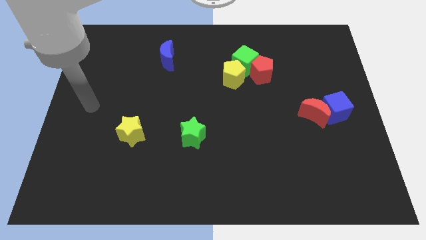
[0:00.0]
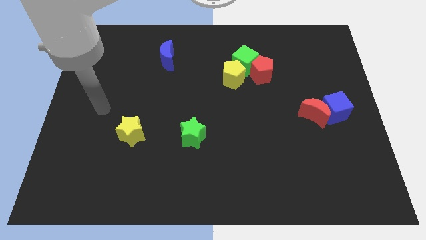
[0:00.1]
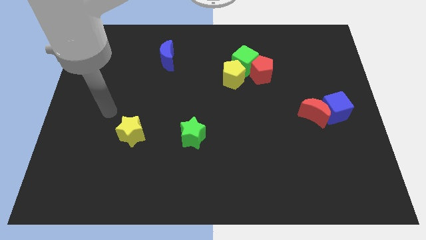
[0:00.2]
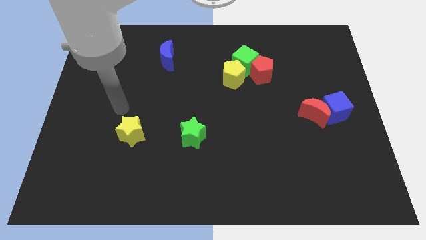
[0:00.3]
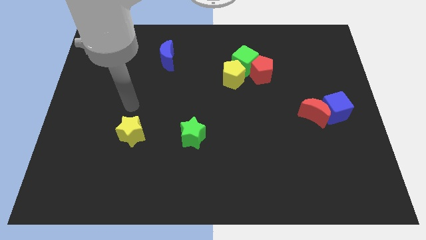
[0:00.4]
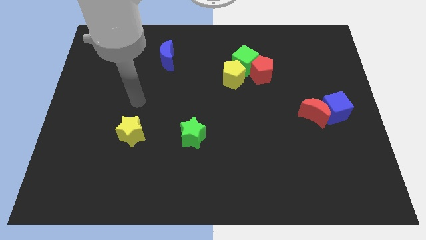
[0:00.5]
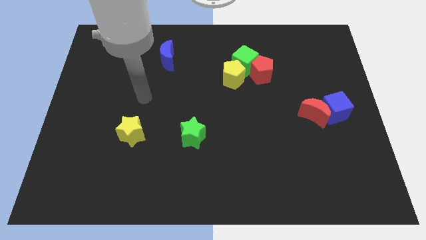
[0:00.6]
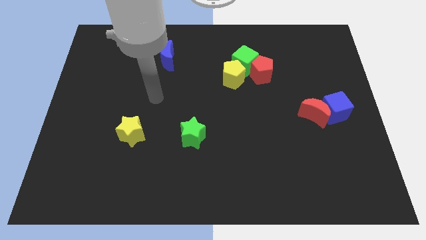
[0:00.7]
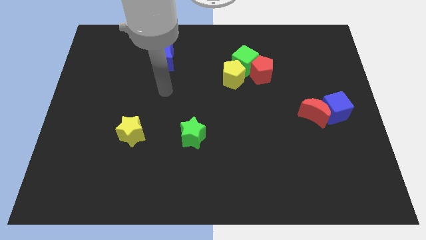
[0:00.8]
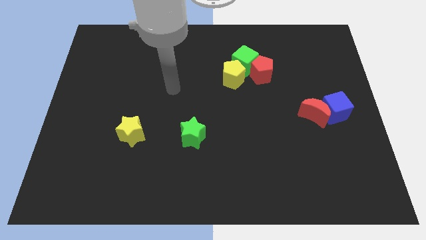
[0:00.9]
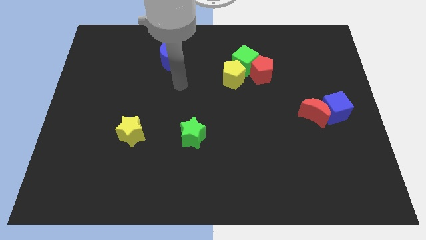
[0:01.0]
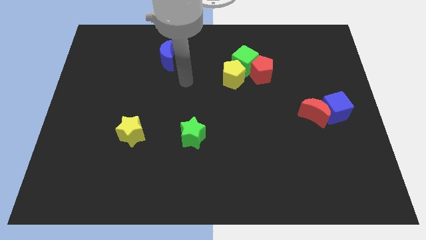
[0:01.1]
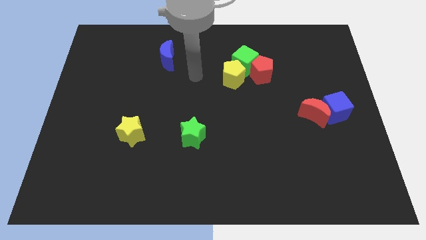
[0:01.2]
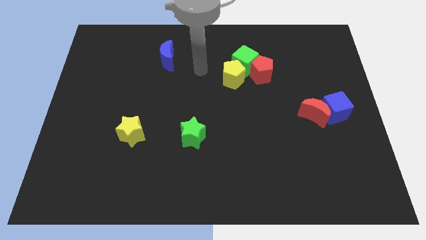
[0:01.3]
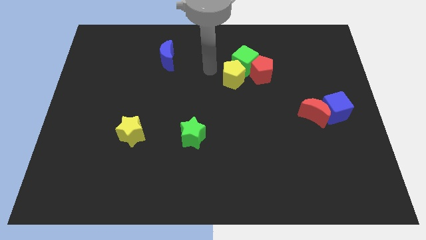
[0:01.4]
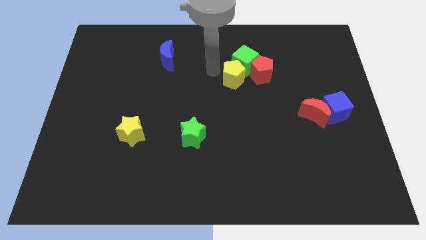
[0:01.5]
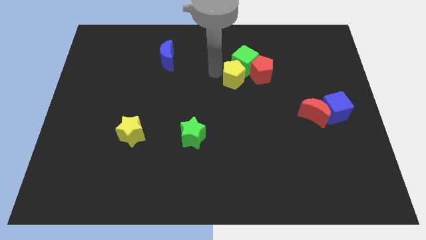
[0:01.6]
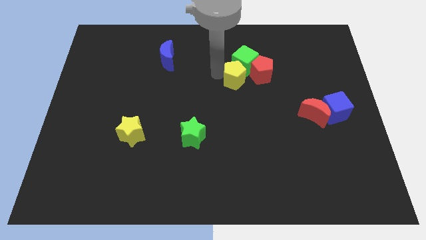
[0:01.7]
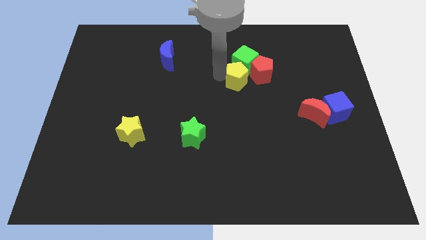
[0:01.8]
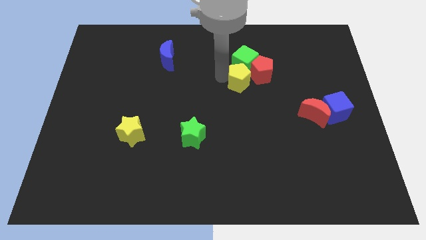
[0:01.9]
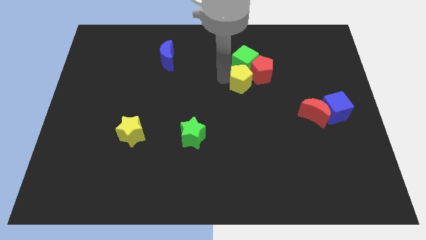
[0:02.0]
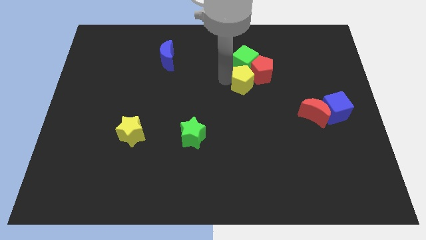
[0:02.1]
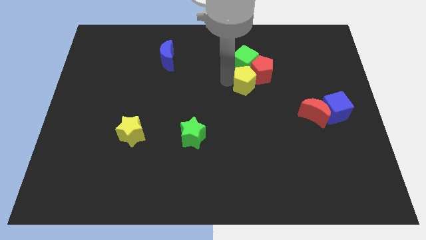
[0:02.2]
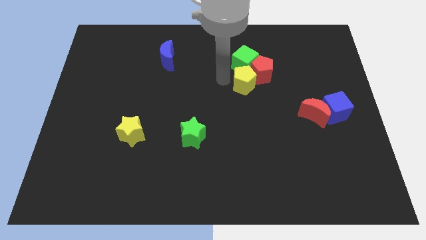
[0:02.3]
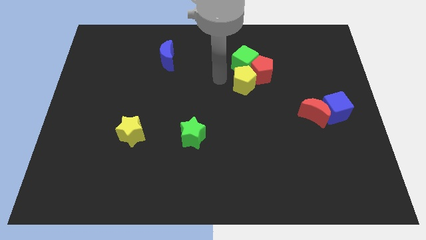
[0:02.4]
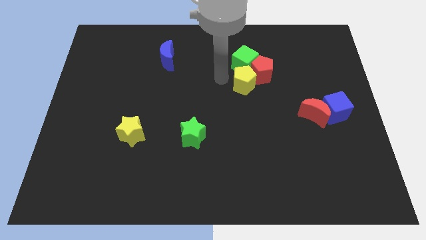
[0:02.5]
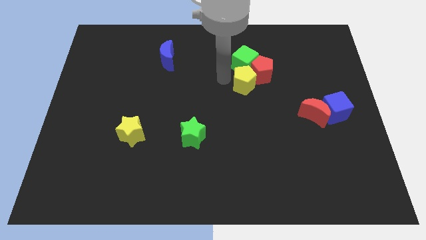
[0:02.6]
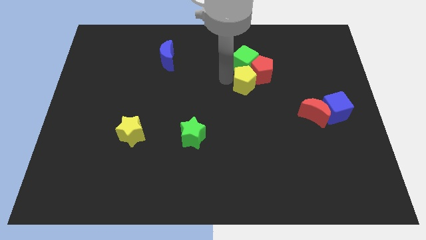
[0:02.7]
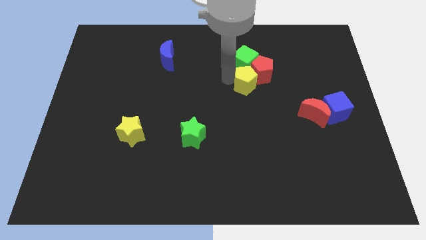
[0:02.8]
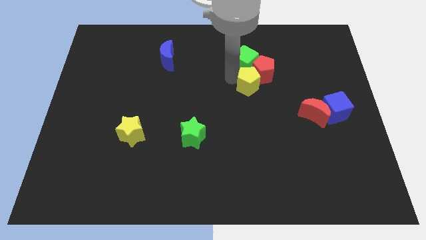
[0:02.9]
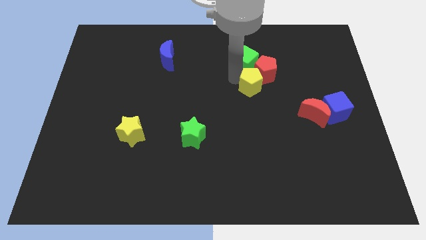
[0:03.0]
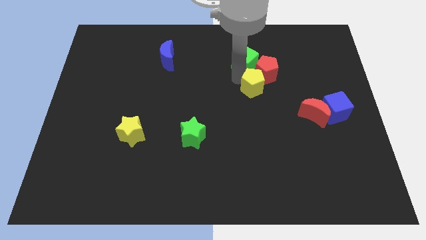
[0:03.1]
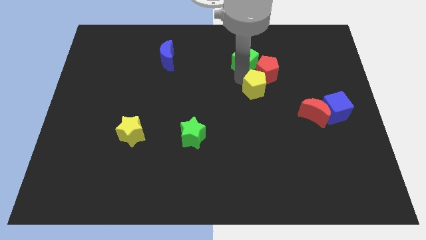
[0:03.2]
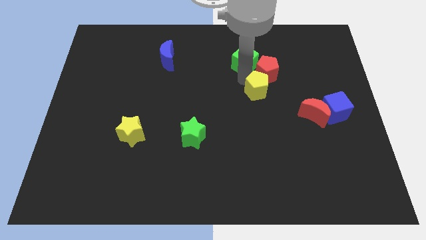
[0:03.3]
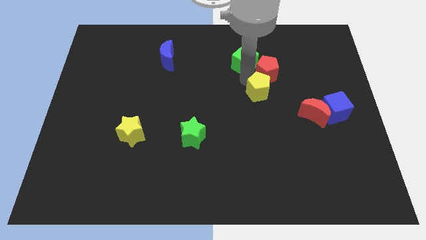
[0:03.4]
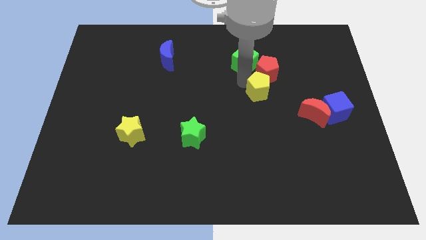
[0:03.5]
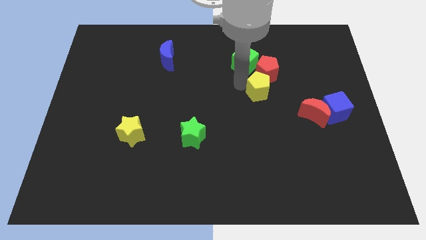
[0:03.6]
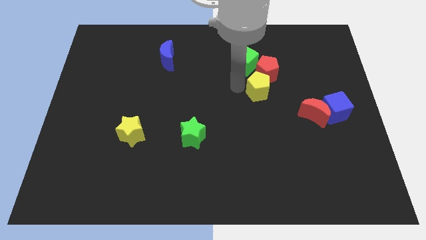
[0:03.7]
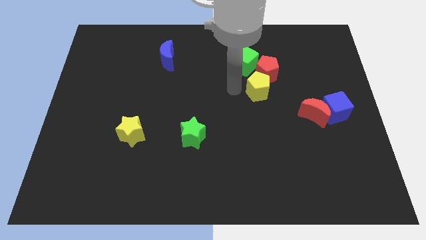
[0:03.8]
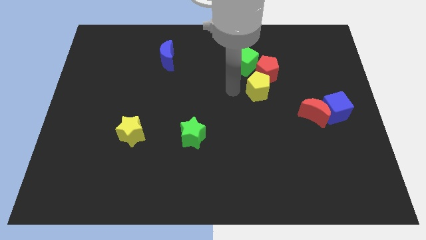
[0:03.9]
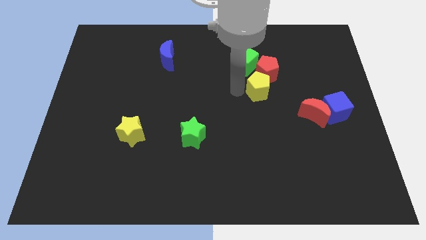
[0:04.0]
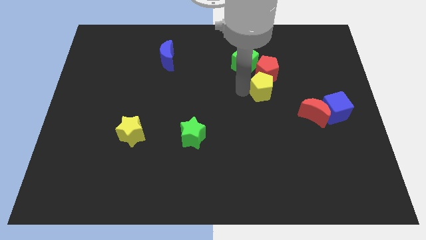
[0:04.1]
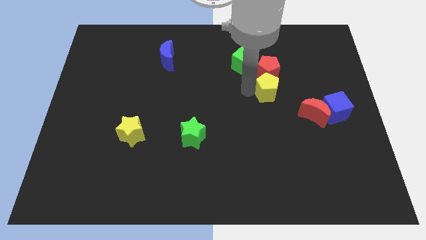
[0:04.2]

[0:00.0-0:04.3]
slide the yellow pentagon to the right slightly

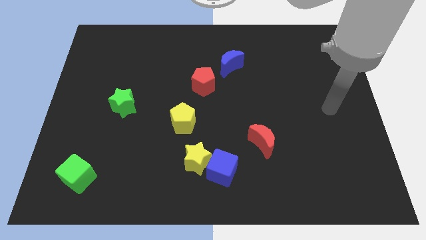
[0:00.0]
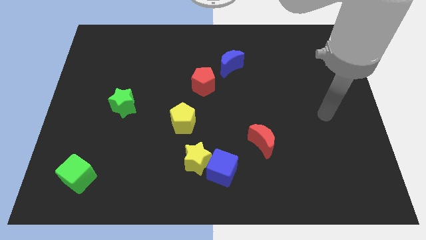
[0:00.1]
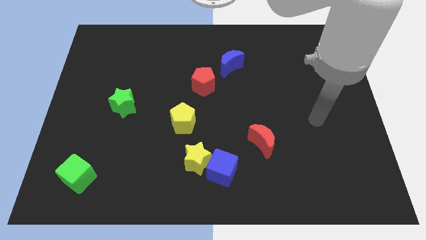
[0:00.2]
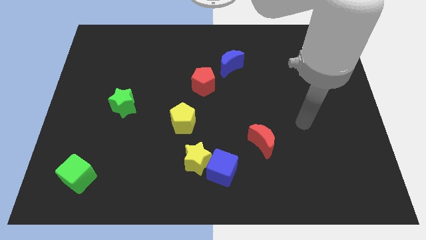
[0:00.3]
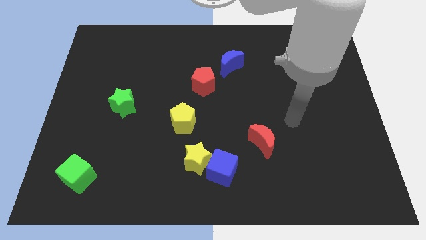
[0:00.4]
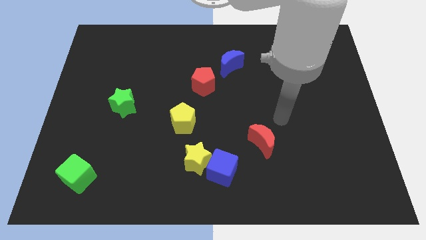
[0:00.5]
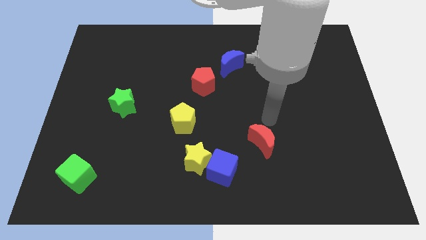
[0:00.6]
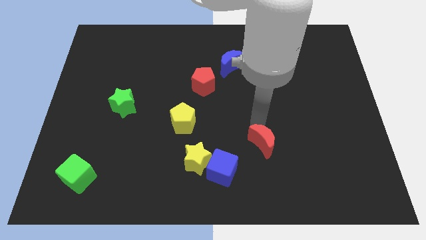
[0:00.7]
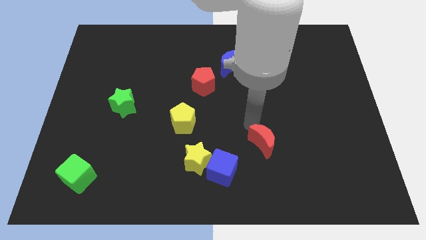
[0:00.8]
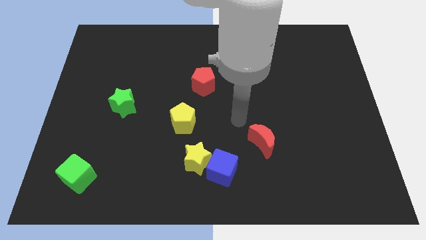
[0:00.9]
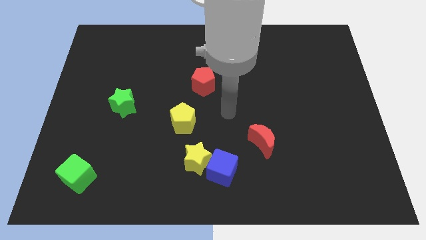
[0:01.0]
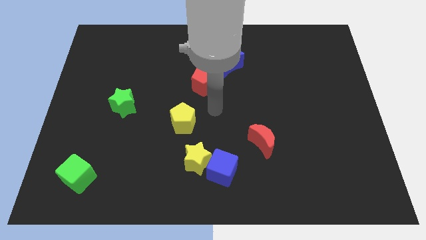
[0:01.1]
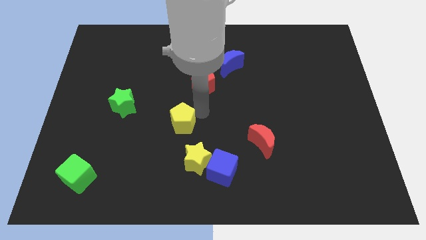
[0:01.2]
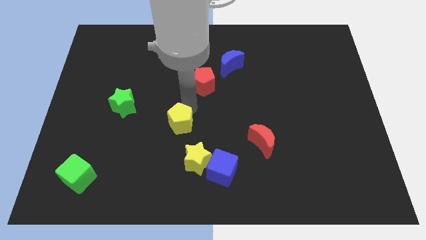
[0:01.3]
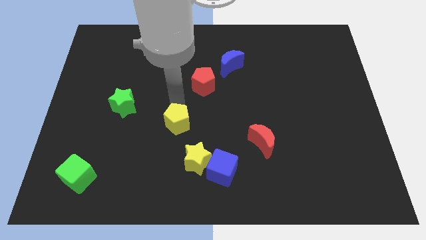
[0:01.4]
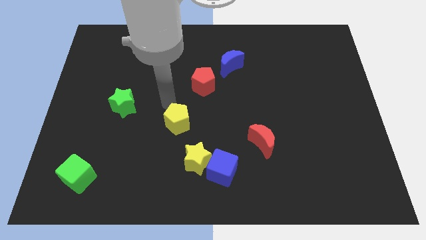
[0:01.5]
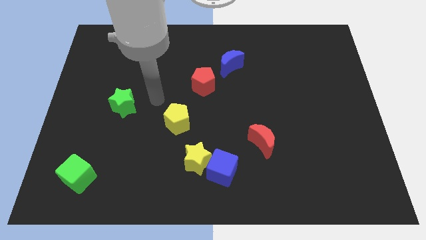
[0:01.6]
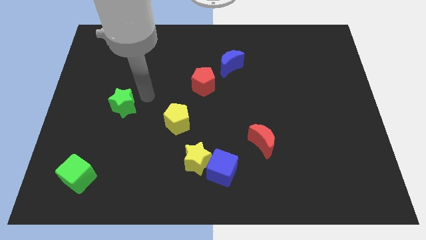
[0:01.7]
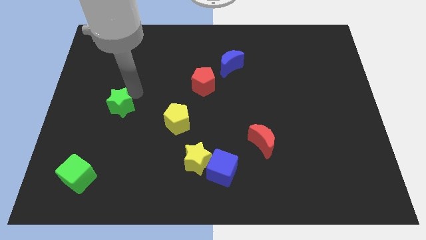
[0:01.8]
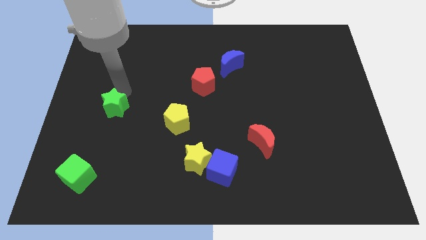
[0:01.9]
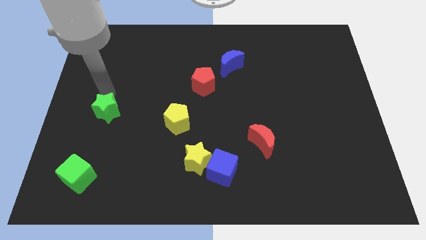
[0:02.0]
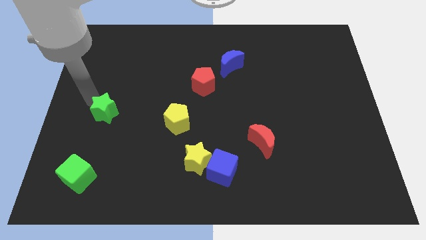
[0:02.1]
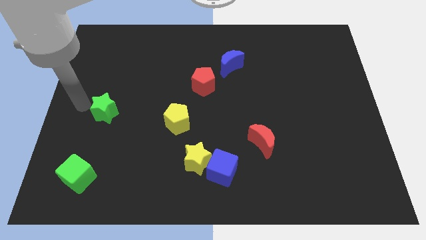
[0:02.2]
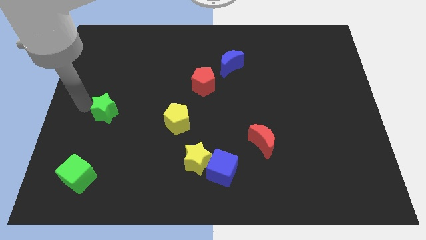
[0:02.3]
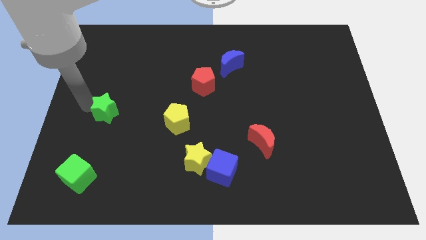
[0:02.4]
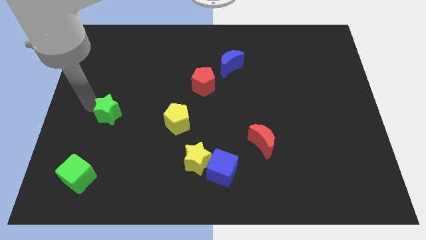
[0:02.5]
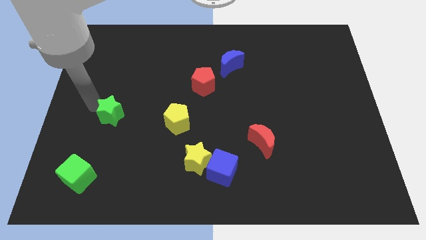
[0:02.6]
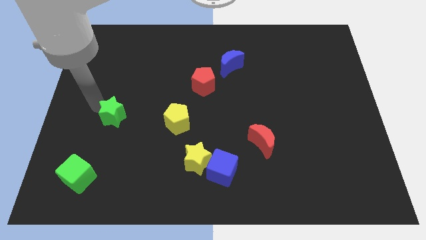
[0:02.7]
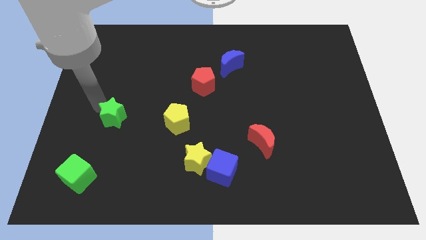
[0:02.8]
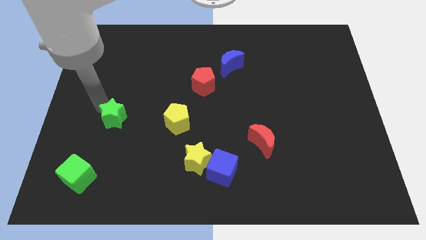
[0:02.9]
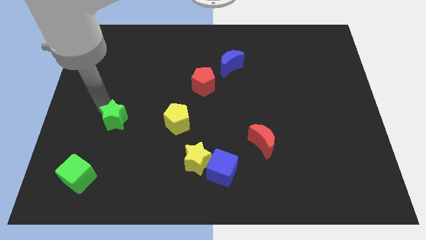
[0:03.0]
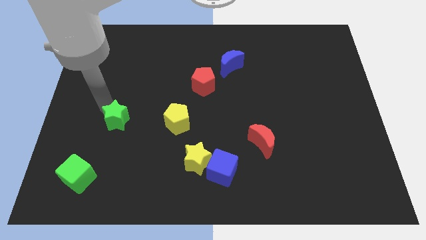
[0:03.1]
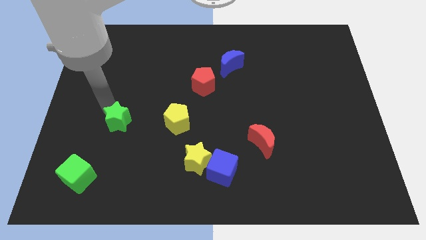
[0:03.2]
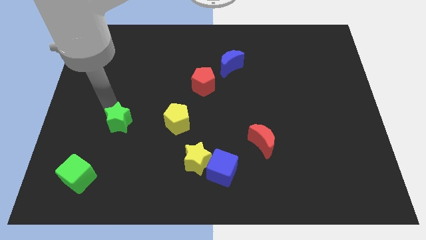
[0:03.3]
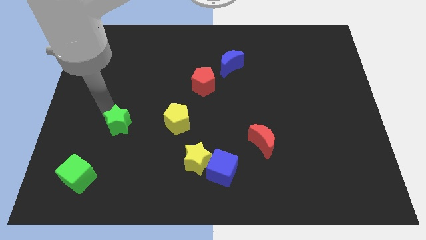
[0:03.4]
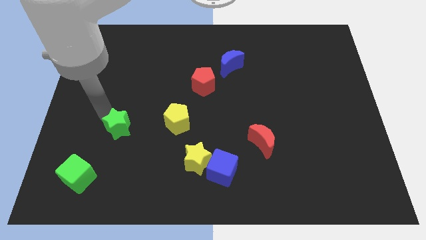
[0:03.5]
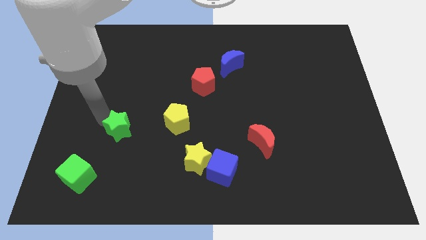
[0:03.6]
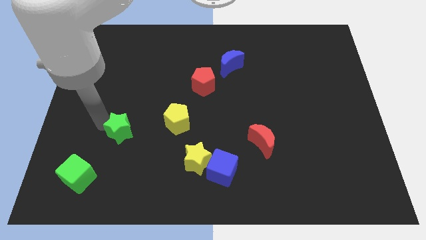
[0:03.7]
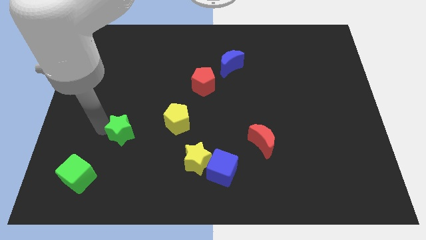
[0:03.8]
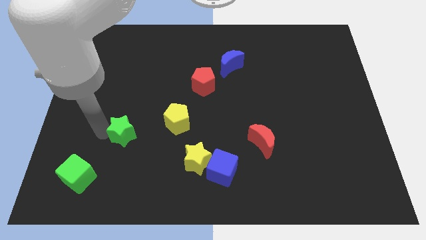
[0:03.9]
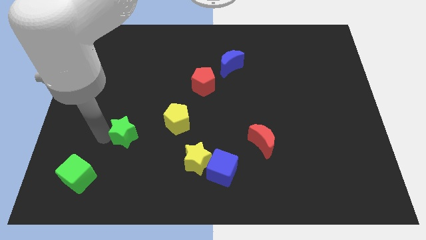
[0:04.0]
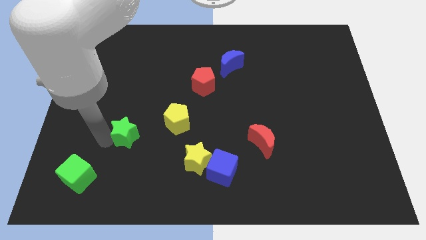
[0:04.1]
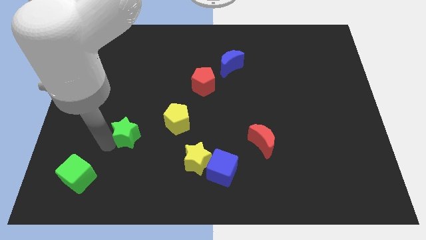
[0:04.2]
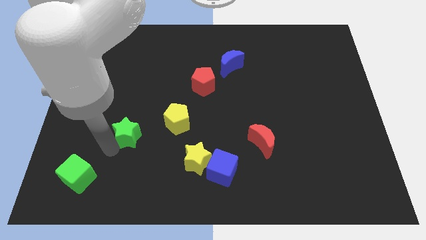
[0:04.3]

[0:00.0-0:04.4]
push the green star a bit down and right diagonally
